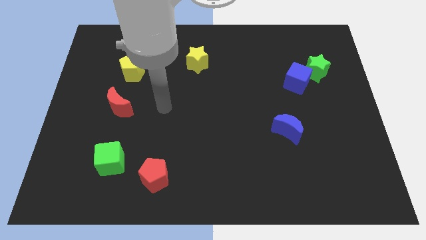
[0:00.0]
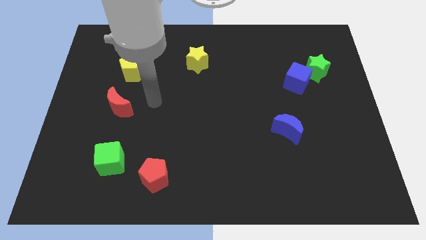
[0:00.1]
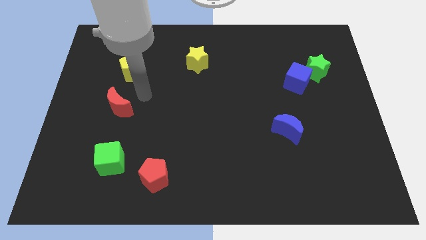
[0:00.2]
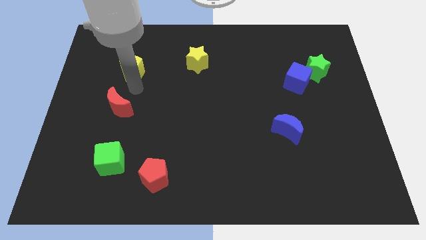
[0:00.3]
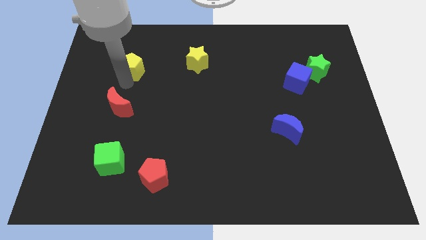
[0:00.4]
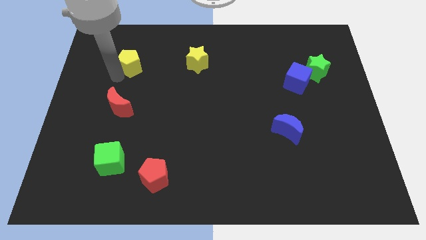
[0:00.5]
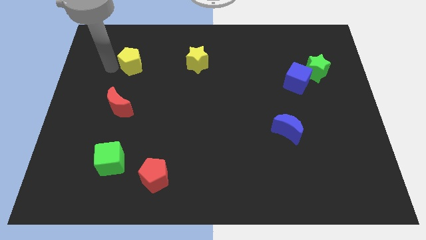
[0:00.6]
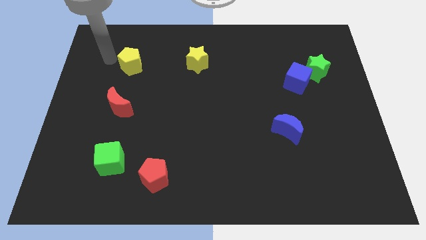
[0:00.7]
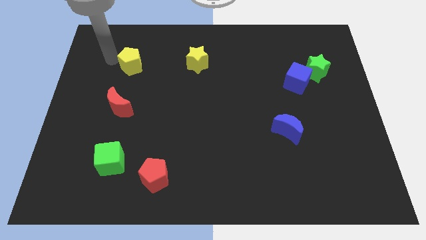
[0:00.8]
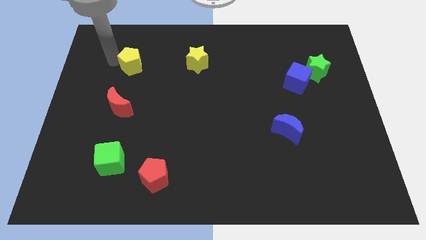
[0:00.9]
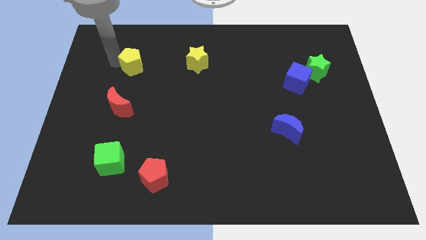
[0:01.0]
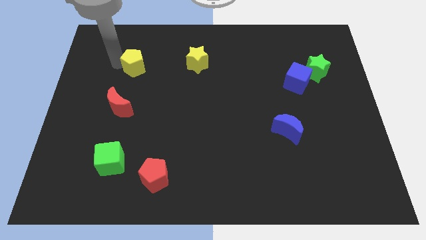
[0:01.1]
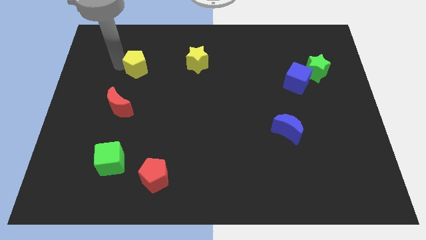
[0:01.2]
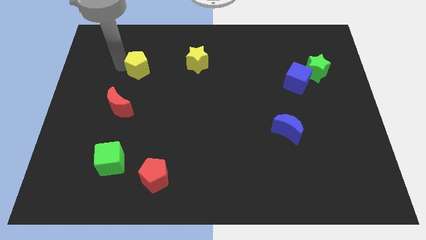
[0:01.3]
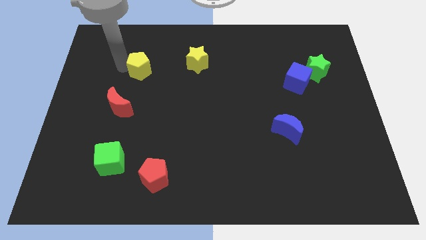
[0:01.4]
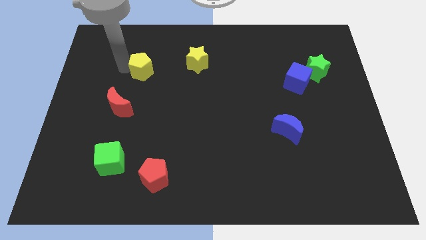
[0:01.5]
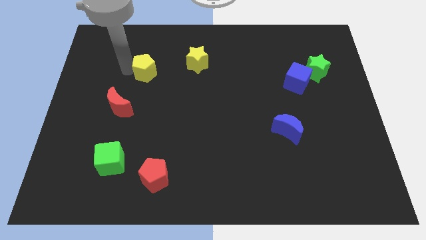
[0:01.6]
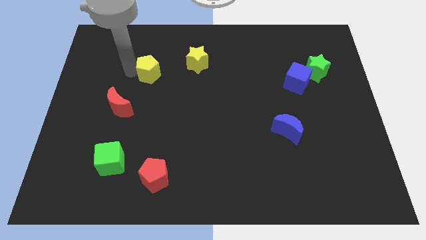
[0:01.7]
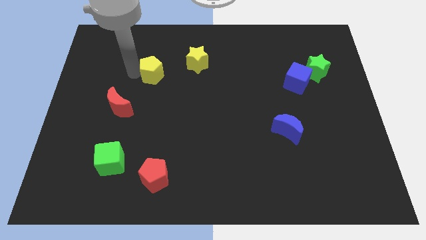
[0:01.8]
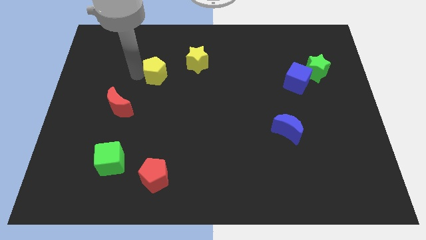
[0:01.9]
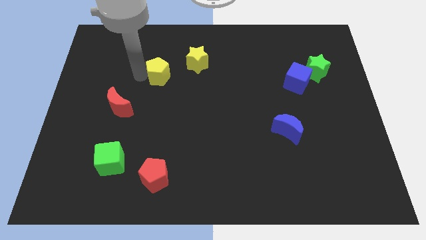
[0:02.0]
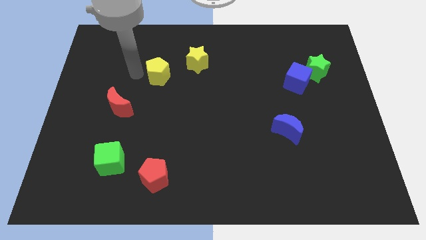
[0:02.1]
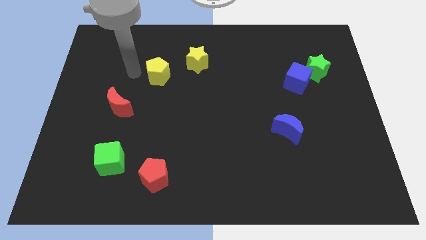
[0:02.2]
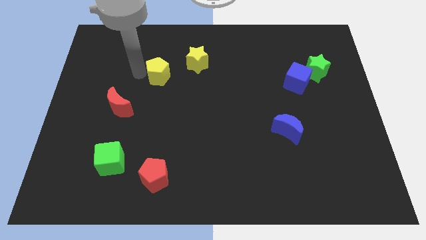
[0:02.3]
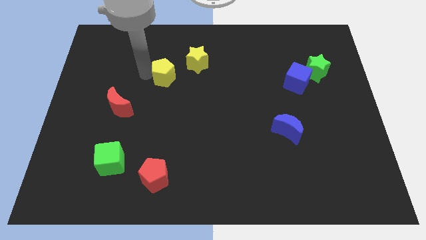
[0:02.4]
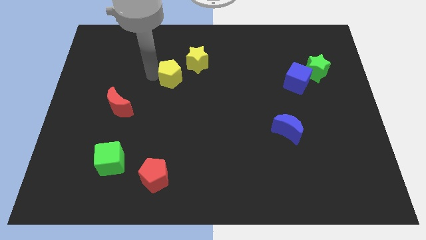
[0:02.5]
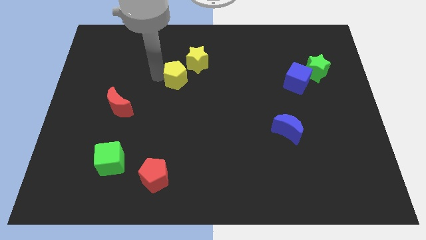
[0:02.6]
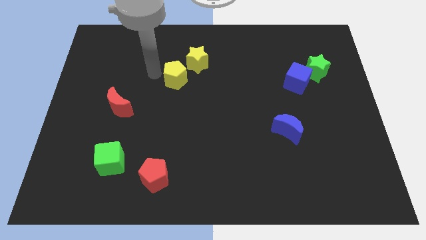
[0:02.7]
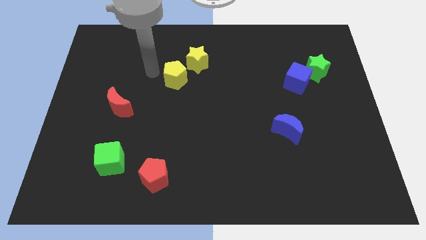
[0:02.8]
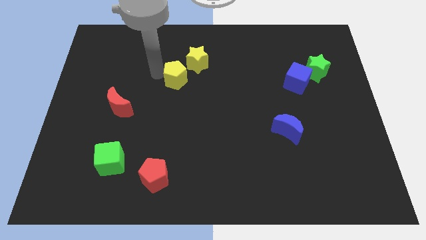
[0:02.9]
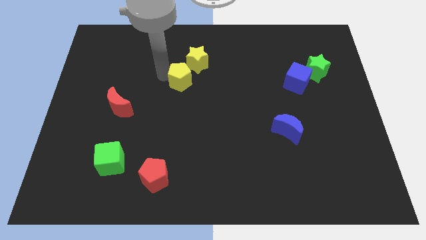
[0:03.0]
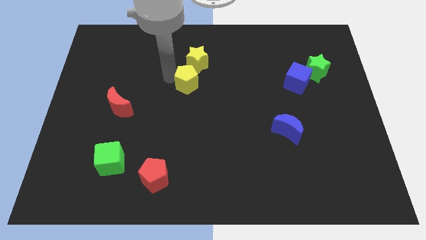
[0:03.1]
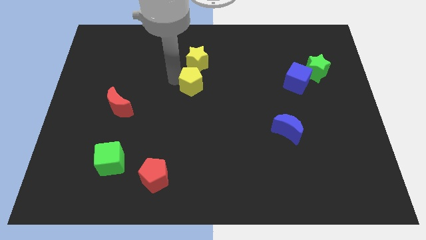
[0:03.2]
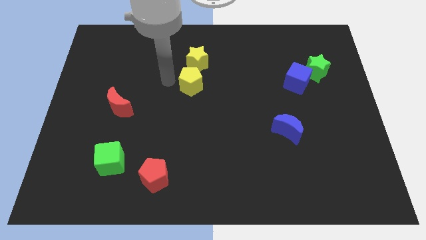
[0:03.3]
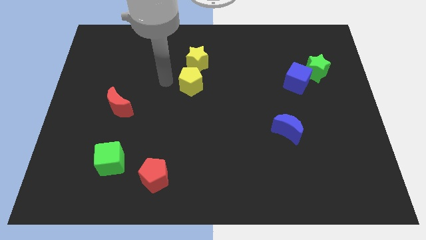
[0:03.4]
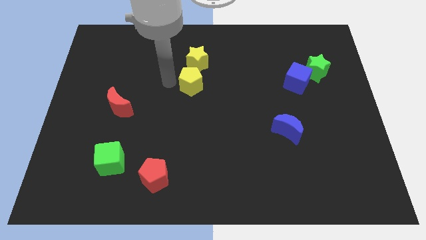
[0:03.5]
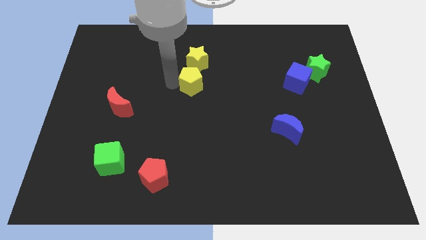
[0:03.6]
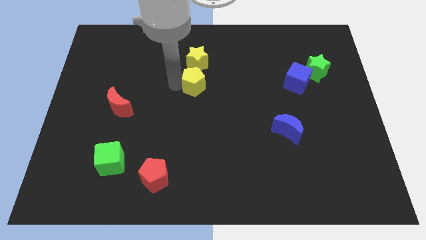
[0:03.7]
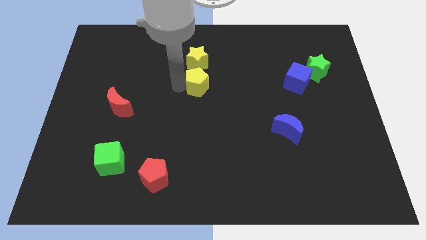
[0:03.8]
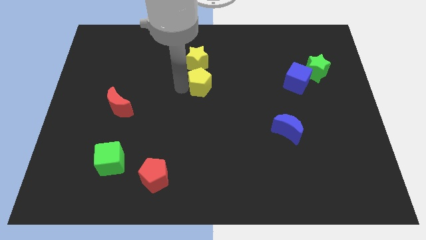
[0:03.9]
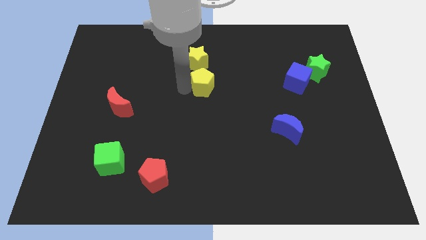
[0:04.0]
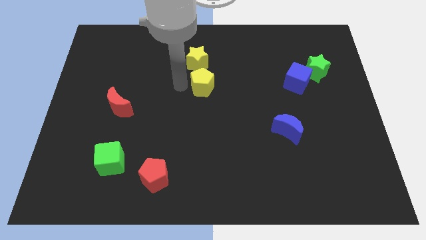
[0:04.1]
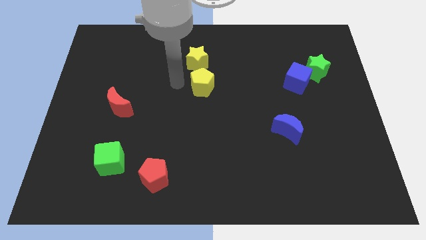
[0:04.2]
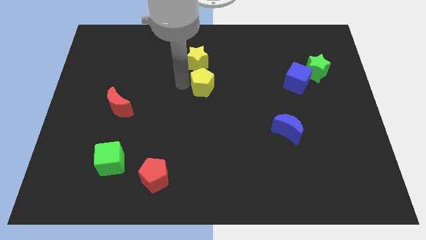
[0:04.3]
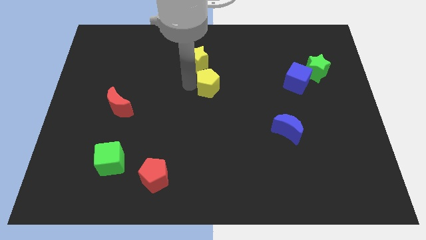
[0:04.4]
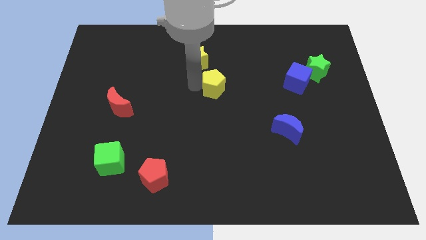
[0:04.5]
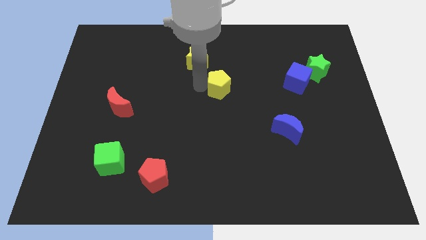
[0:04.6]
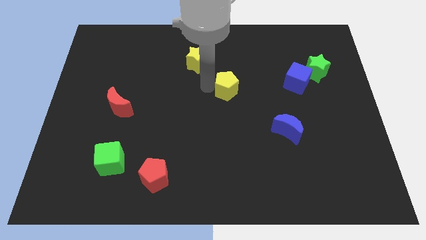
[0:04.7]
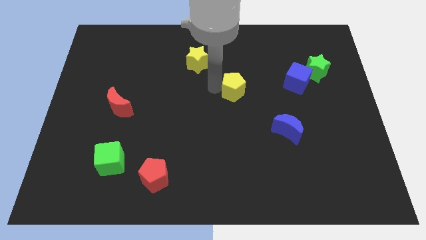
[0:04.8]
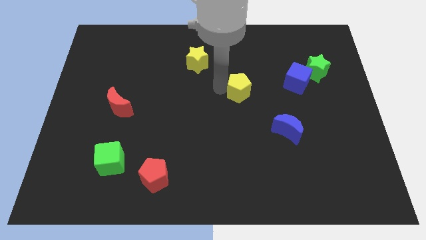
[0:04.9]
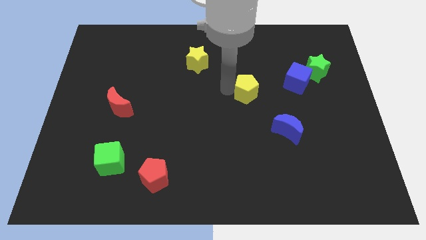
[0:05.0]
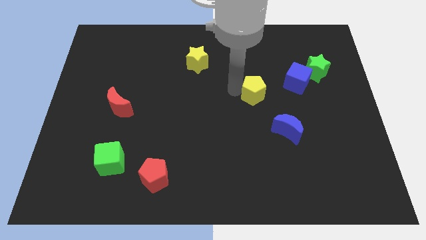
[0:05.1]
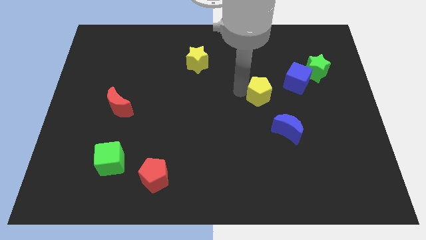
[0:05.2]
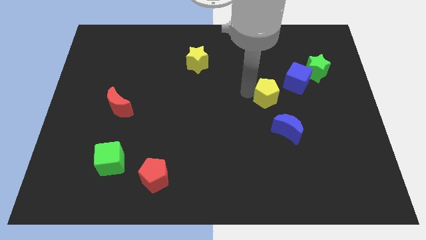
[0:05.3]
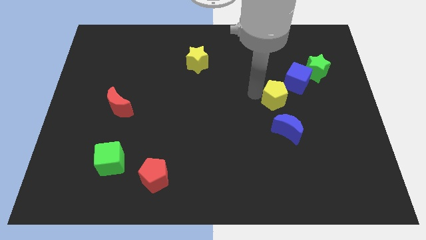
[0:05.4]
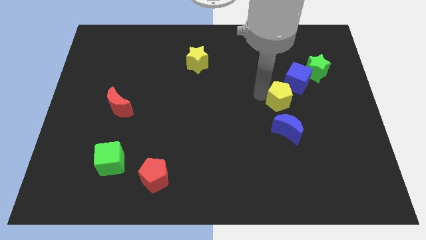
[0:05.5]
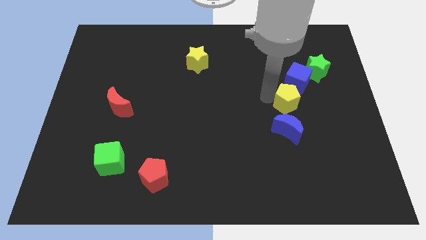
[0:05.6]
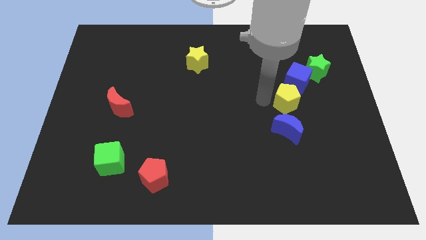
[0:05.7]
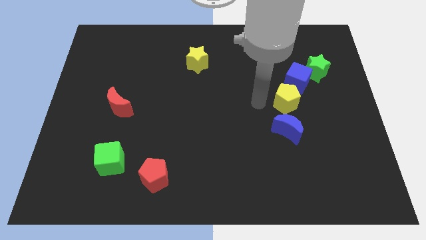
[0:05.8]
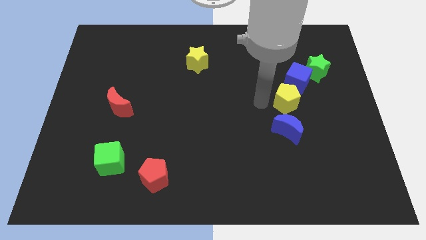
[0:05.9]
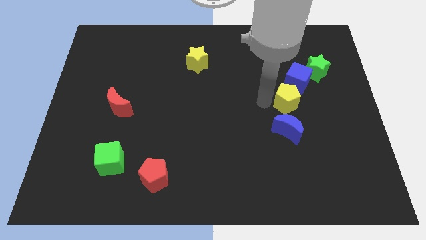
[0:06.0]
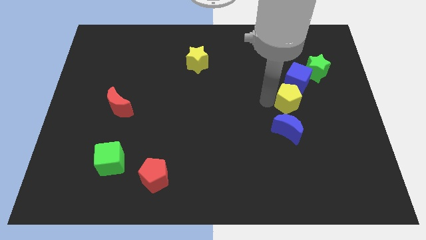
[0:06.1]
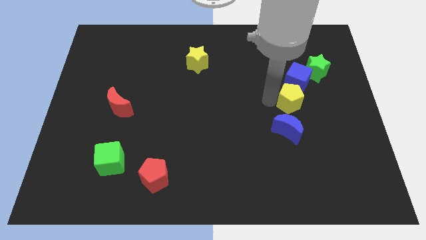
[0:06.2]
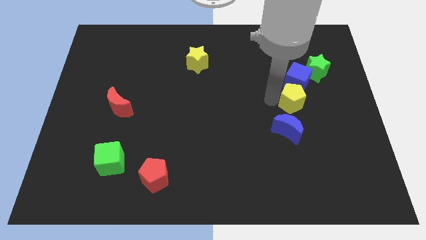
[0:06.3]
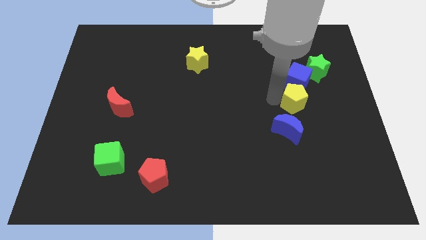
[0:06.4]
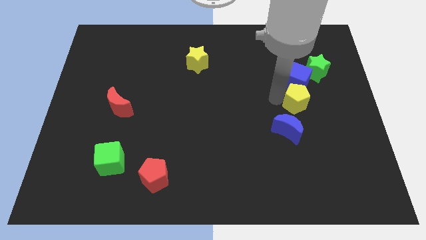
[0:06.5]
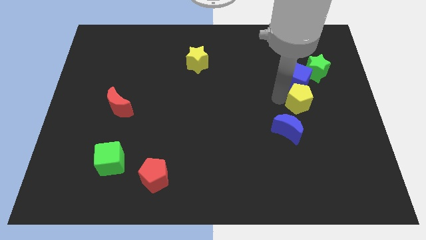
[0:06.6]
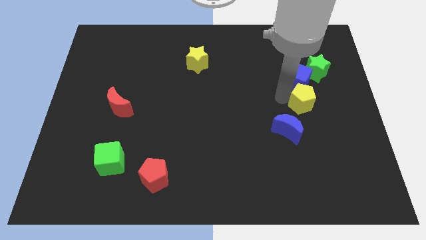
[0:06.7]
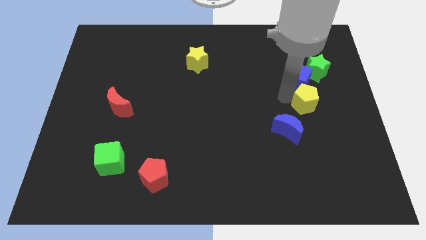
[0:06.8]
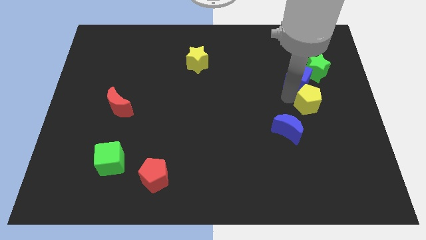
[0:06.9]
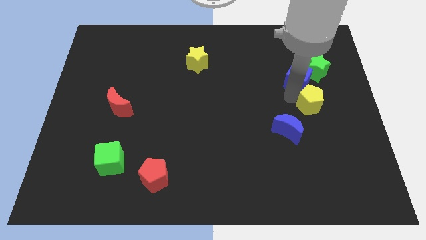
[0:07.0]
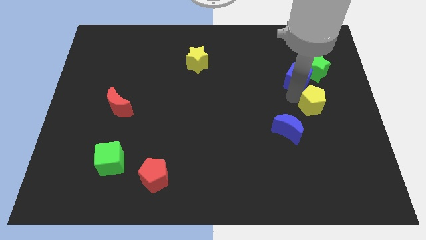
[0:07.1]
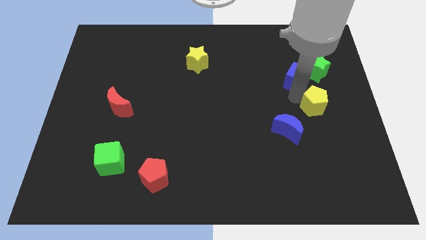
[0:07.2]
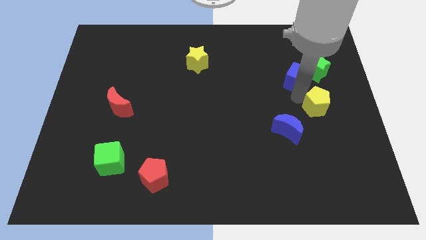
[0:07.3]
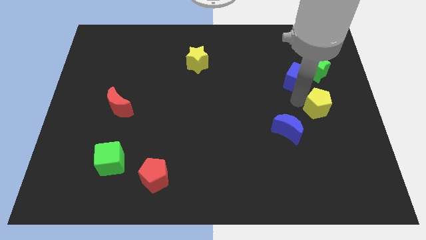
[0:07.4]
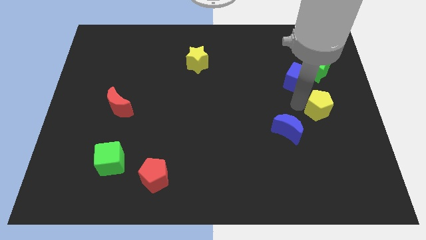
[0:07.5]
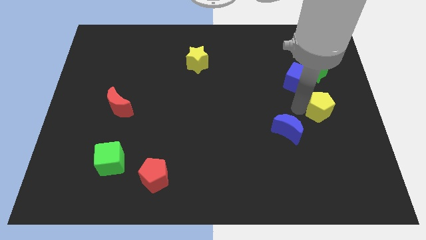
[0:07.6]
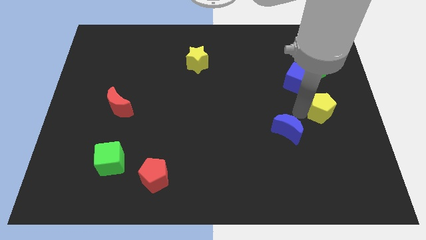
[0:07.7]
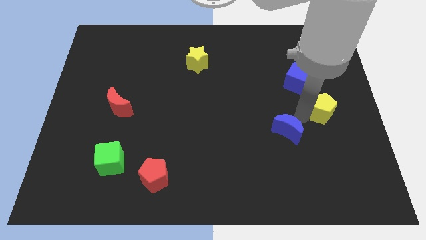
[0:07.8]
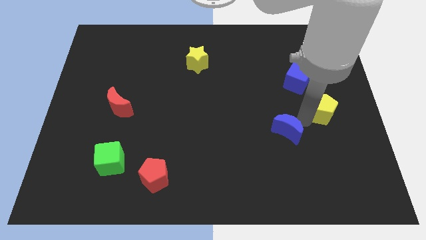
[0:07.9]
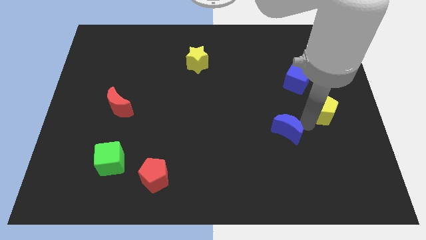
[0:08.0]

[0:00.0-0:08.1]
put the yellow pentagon to the right side
